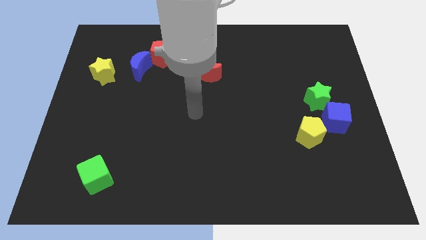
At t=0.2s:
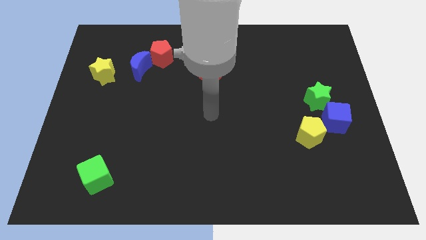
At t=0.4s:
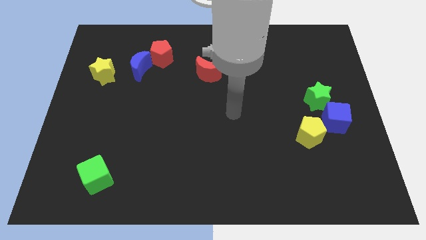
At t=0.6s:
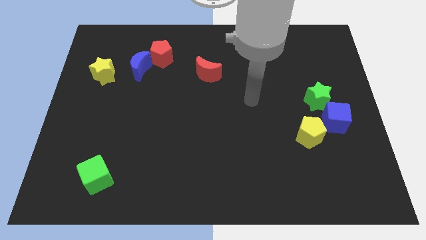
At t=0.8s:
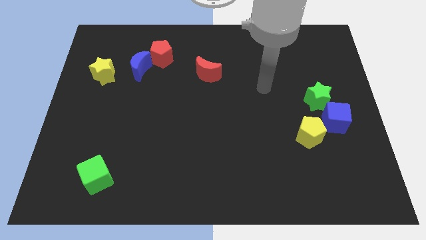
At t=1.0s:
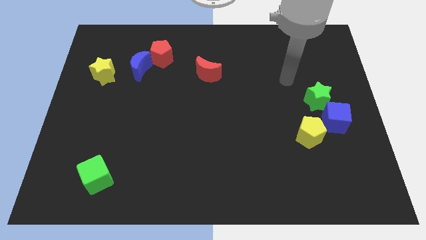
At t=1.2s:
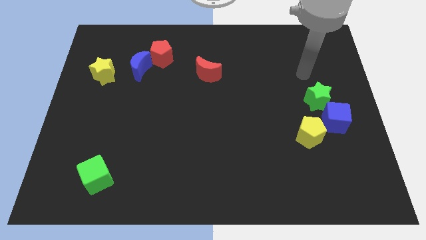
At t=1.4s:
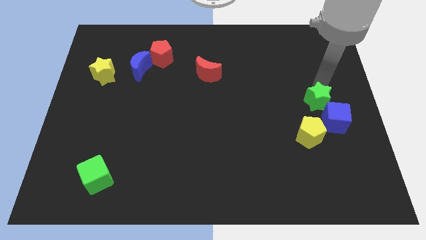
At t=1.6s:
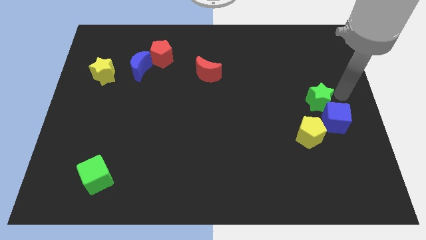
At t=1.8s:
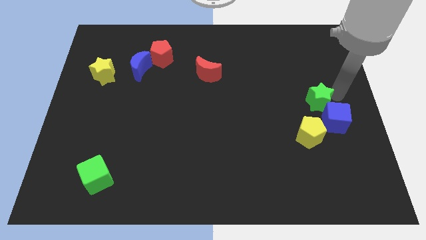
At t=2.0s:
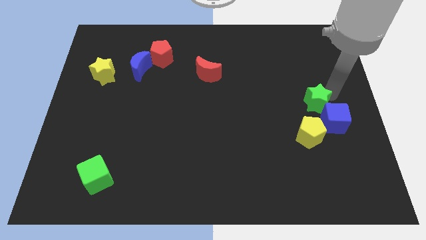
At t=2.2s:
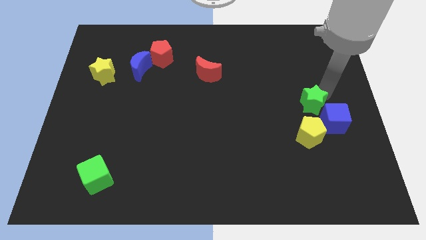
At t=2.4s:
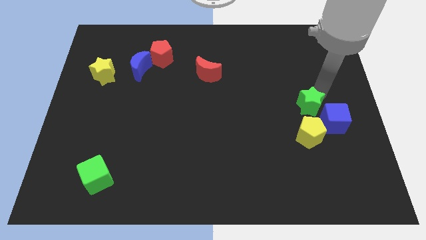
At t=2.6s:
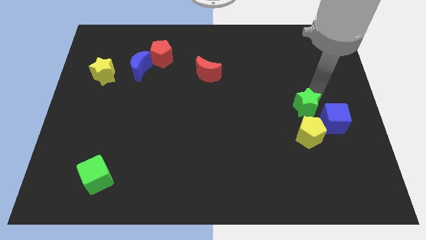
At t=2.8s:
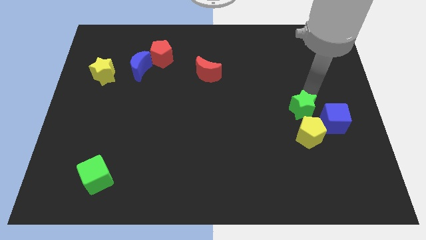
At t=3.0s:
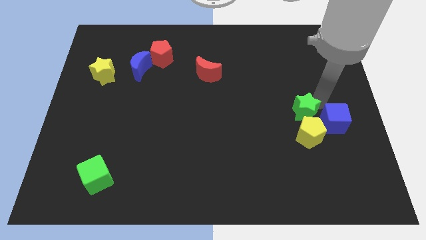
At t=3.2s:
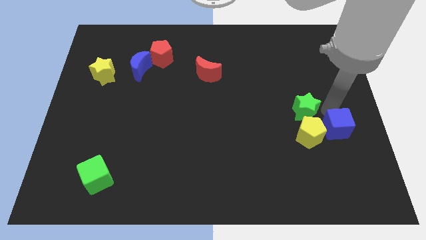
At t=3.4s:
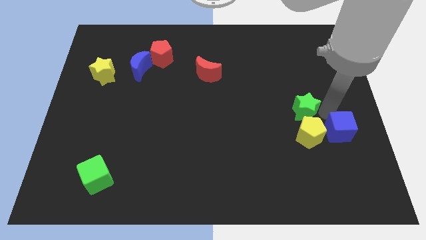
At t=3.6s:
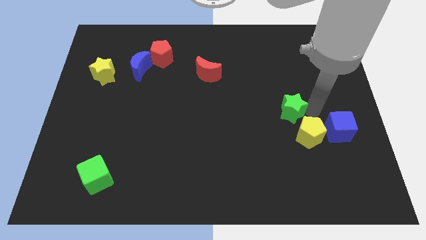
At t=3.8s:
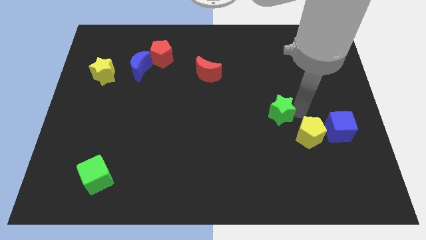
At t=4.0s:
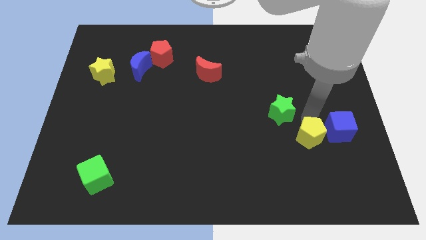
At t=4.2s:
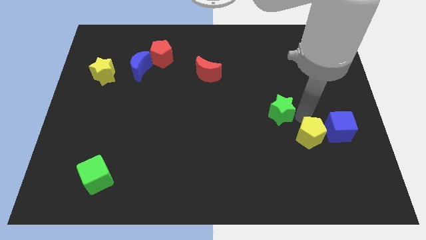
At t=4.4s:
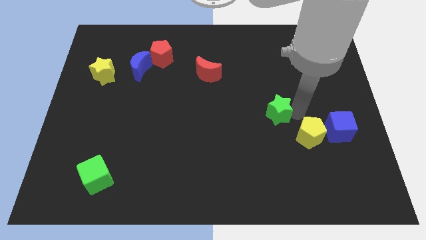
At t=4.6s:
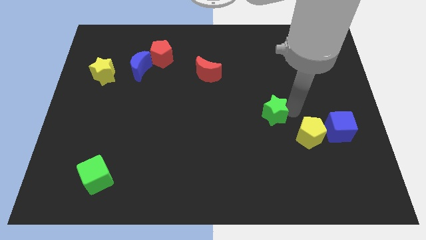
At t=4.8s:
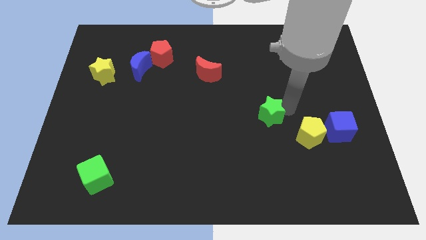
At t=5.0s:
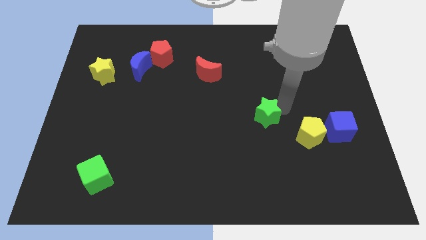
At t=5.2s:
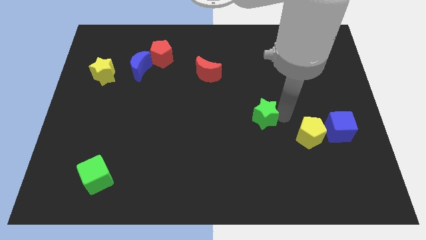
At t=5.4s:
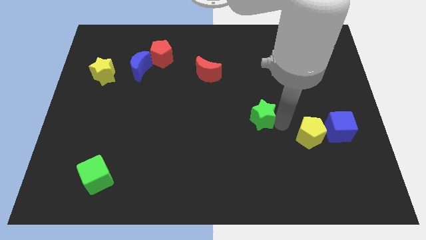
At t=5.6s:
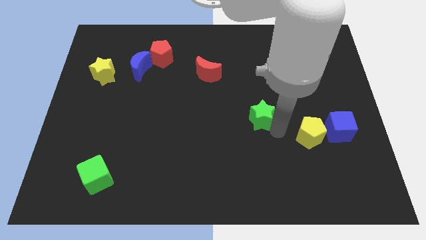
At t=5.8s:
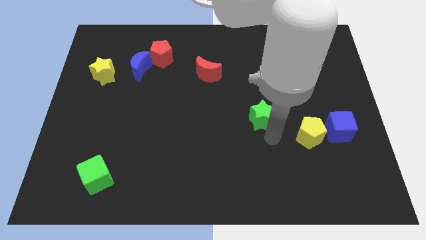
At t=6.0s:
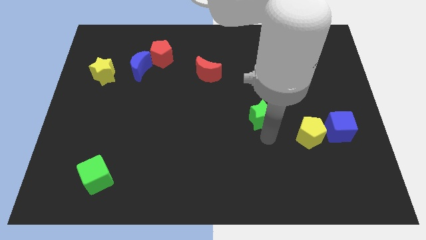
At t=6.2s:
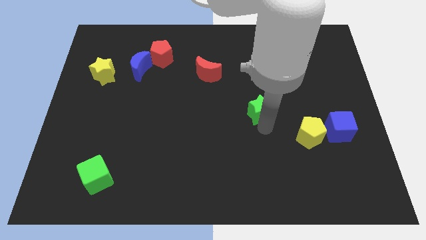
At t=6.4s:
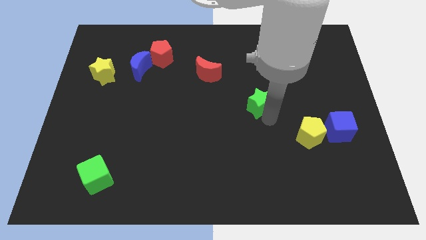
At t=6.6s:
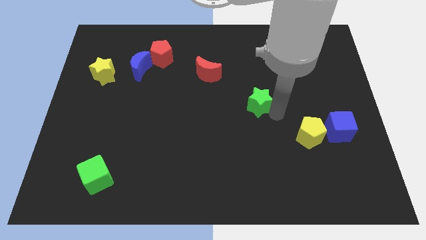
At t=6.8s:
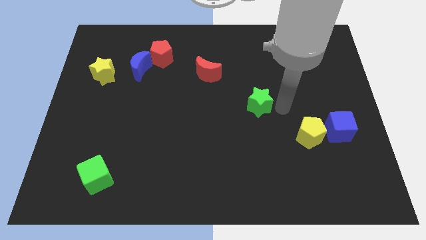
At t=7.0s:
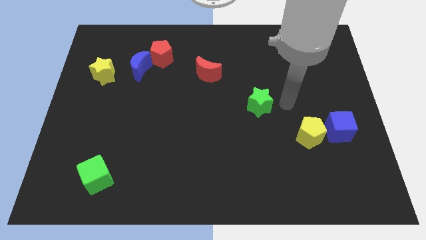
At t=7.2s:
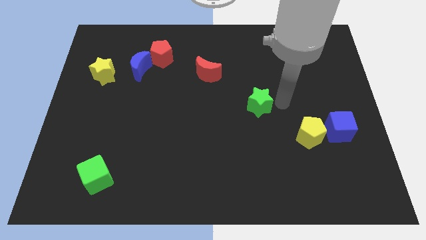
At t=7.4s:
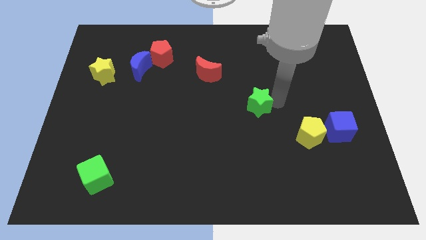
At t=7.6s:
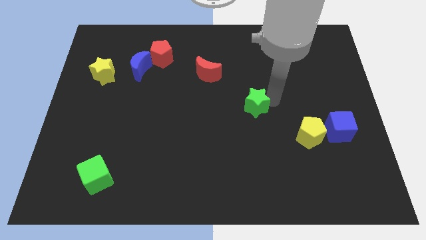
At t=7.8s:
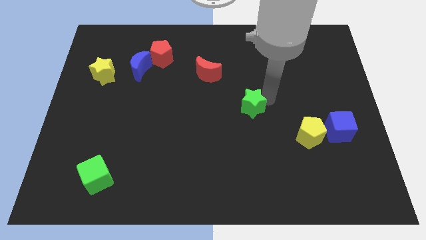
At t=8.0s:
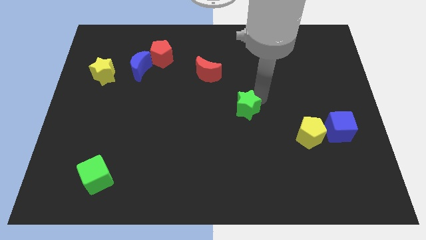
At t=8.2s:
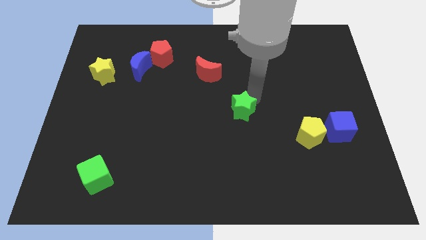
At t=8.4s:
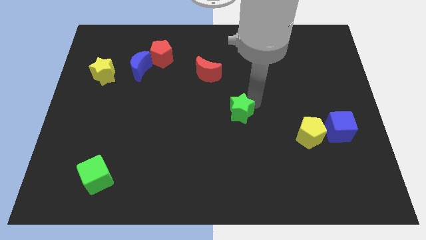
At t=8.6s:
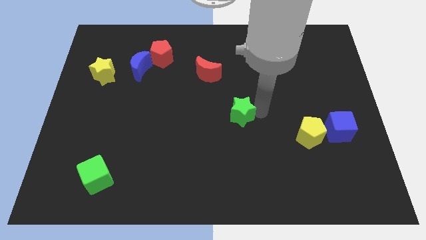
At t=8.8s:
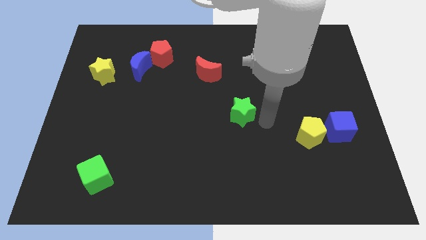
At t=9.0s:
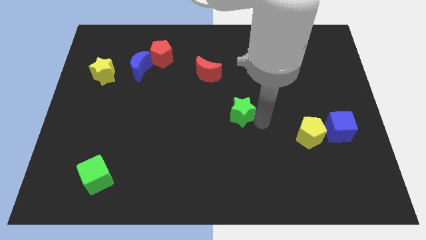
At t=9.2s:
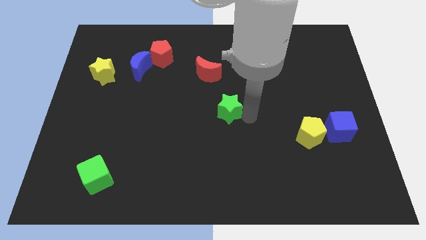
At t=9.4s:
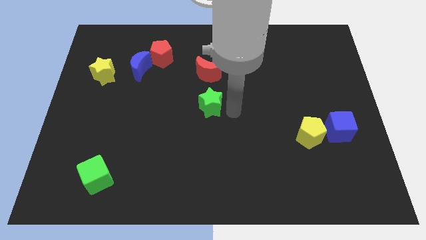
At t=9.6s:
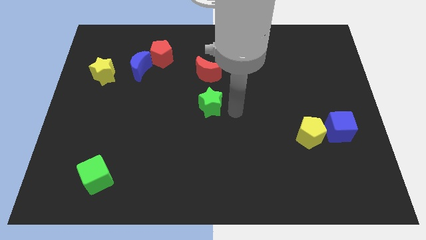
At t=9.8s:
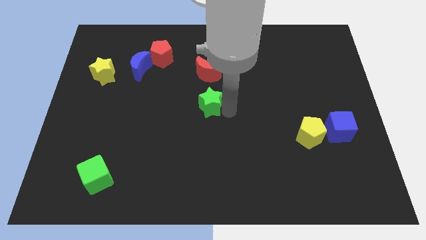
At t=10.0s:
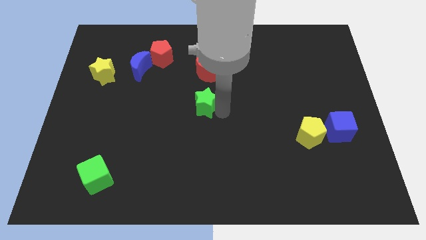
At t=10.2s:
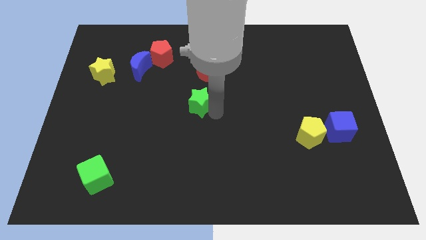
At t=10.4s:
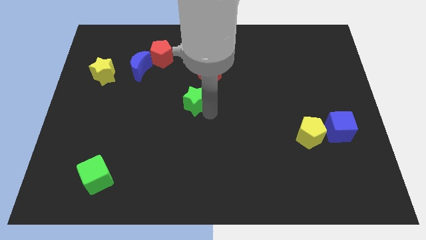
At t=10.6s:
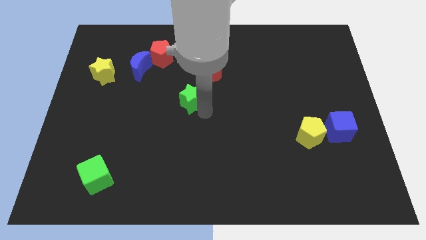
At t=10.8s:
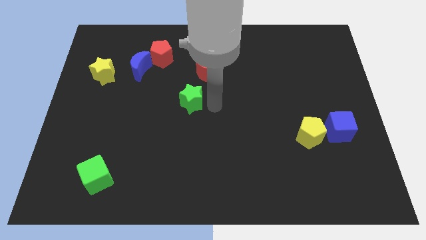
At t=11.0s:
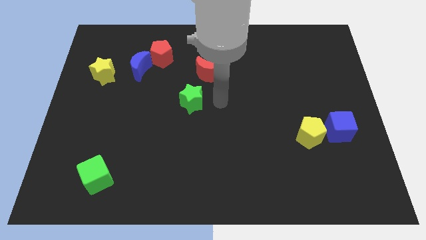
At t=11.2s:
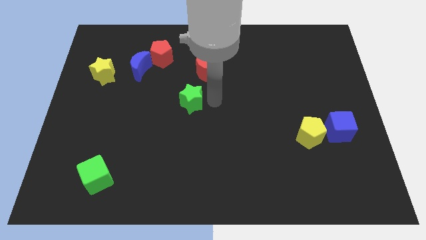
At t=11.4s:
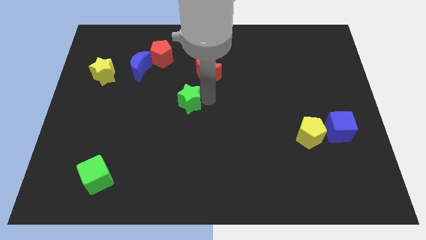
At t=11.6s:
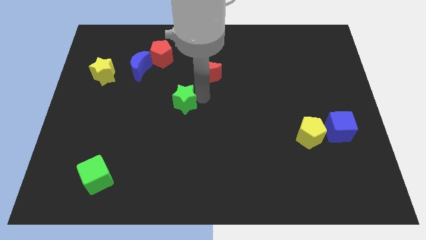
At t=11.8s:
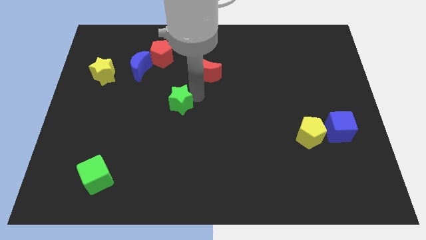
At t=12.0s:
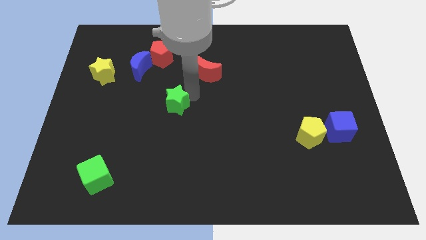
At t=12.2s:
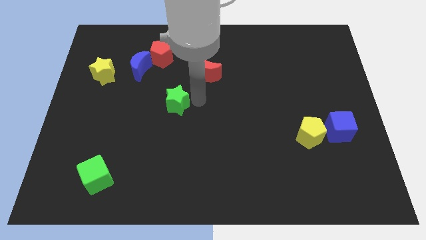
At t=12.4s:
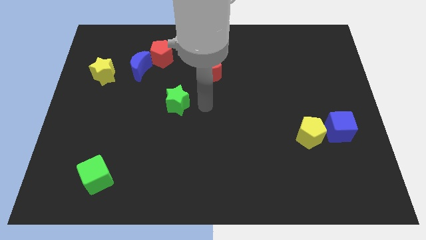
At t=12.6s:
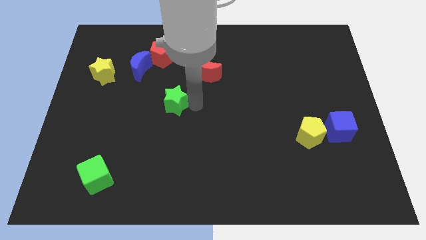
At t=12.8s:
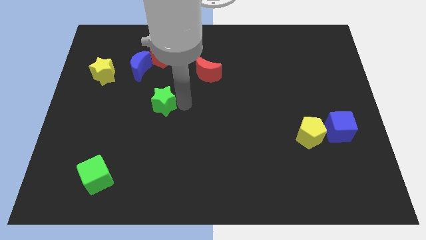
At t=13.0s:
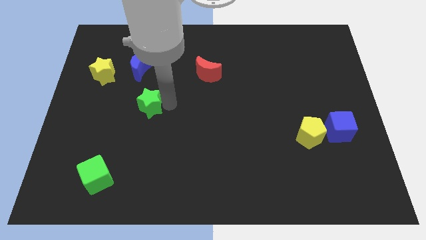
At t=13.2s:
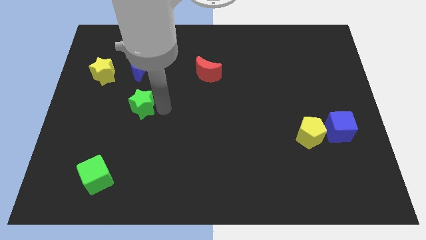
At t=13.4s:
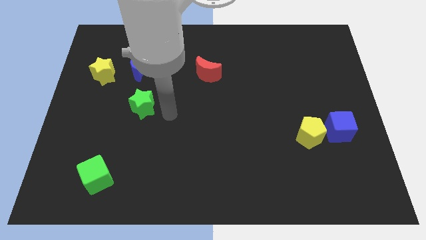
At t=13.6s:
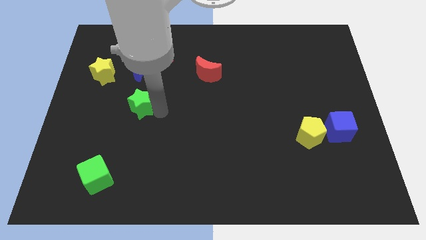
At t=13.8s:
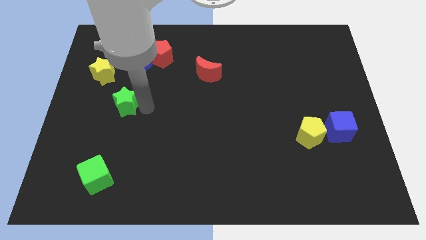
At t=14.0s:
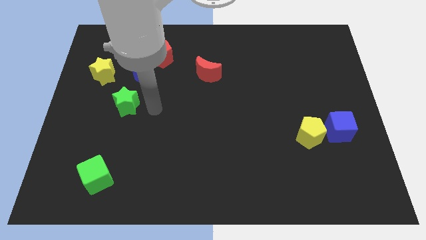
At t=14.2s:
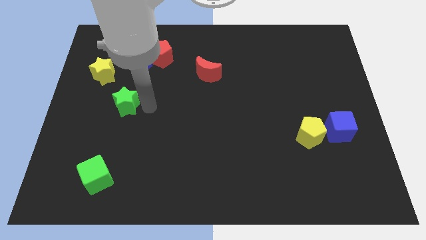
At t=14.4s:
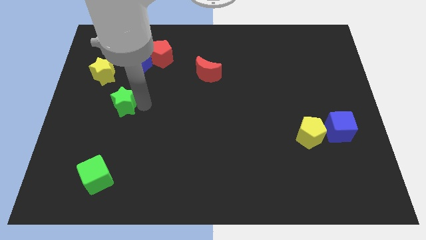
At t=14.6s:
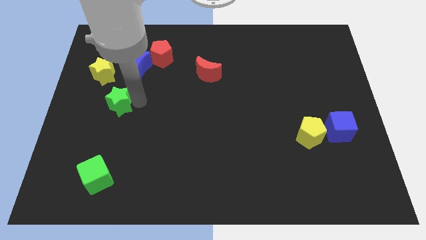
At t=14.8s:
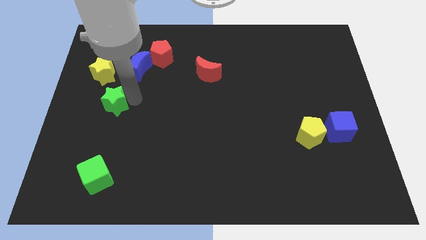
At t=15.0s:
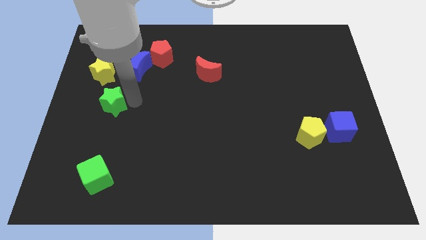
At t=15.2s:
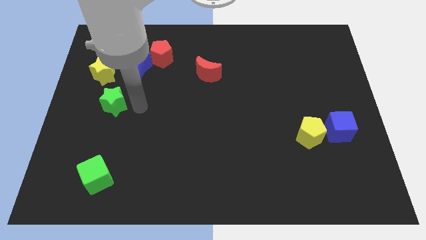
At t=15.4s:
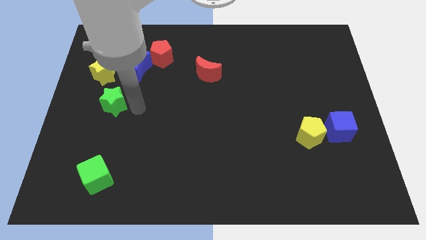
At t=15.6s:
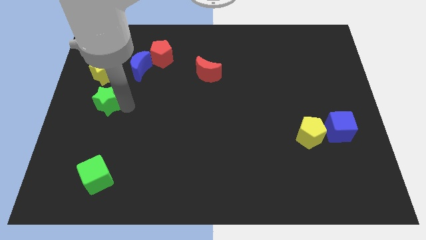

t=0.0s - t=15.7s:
push the green star to the left side
